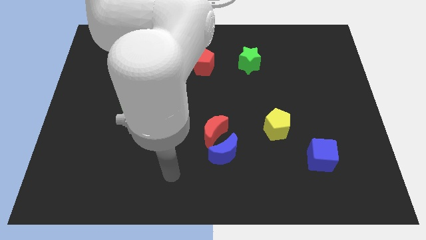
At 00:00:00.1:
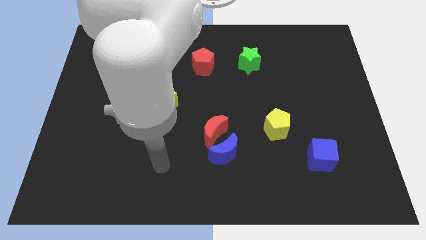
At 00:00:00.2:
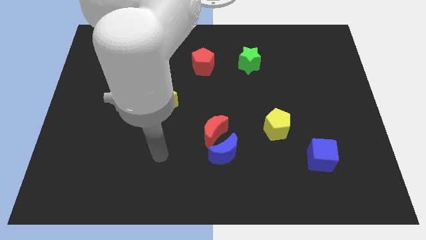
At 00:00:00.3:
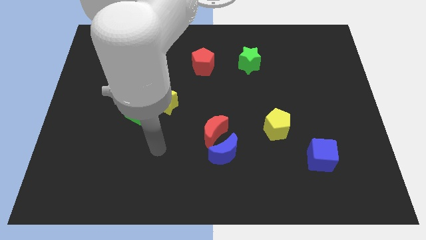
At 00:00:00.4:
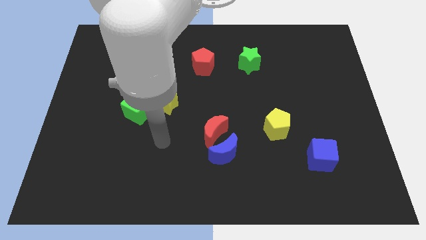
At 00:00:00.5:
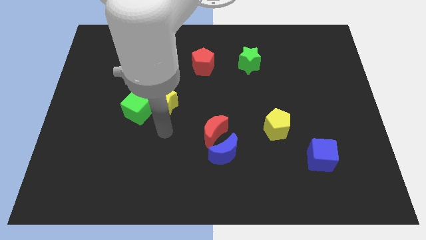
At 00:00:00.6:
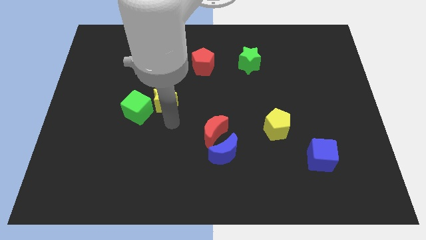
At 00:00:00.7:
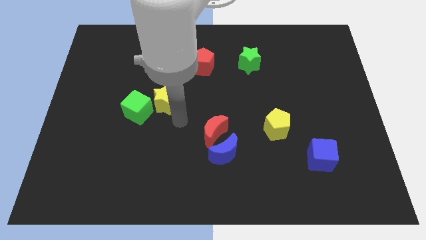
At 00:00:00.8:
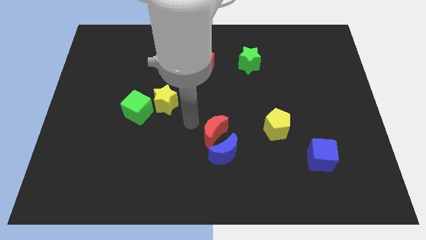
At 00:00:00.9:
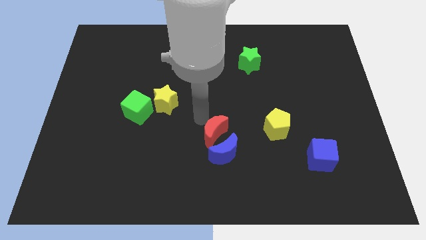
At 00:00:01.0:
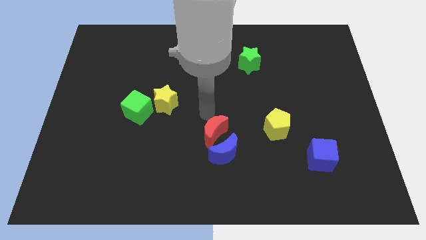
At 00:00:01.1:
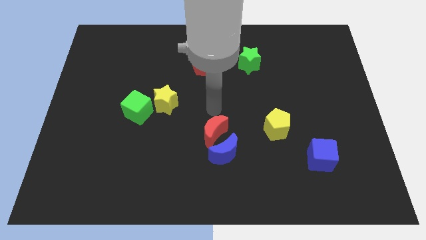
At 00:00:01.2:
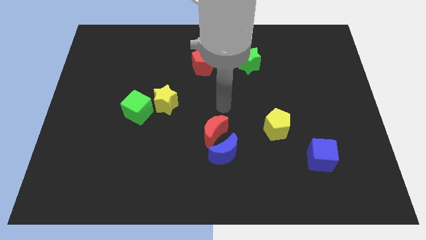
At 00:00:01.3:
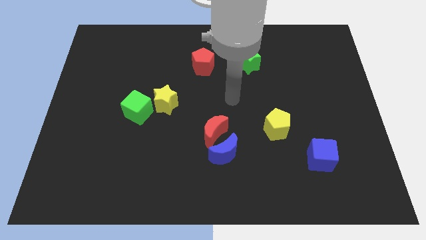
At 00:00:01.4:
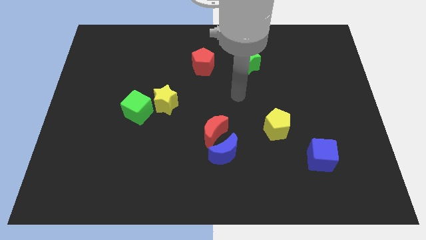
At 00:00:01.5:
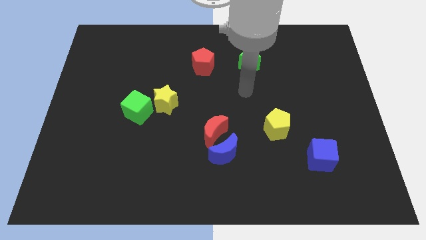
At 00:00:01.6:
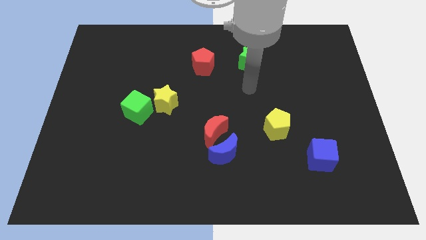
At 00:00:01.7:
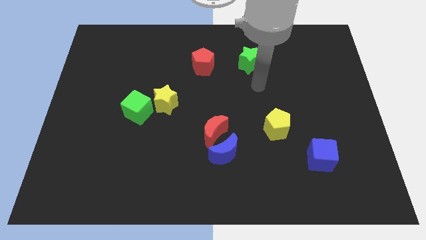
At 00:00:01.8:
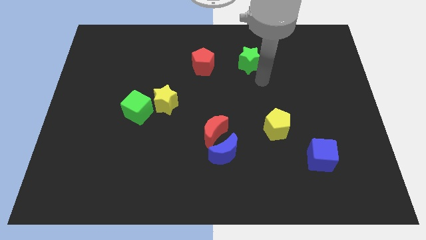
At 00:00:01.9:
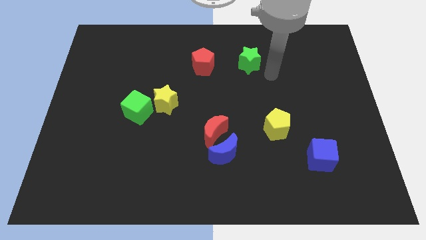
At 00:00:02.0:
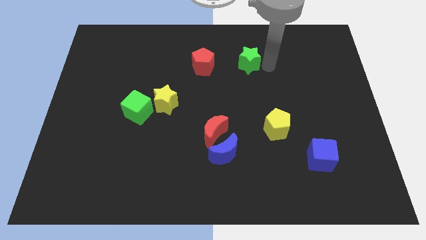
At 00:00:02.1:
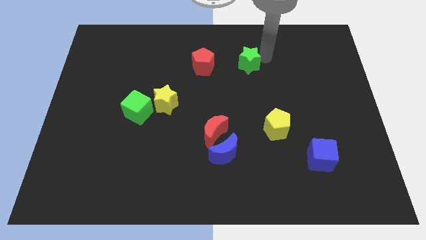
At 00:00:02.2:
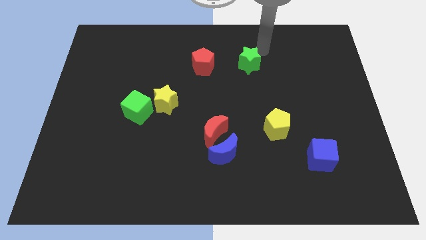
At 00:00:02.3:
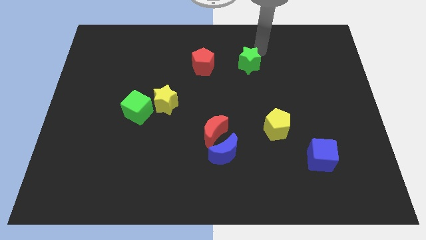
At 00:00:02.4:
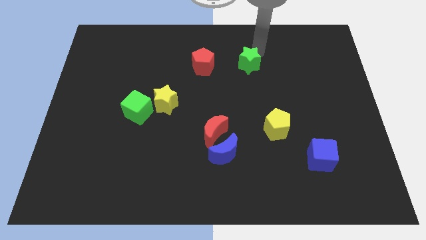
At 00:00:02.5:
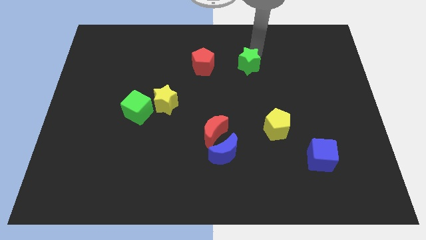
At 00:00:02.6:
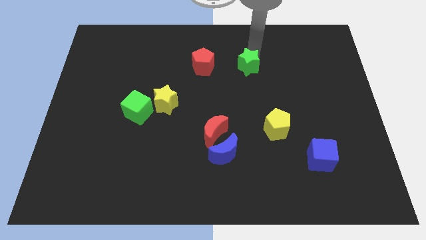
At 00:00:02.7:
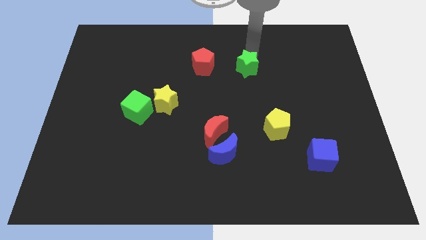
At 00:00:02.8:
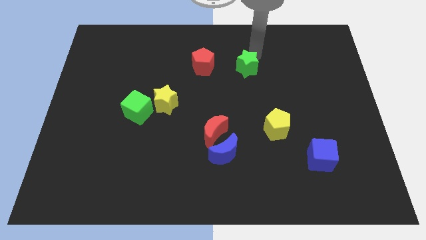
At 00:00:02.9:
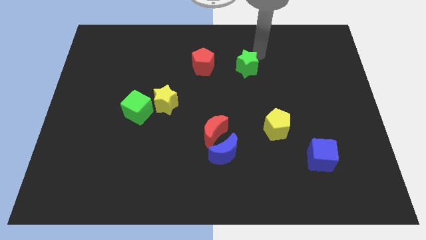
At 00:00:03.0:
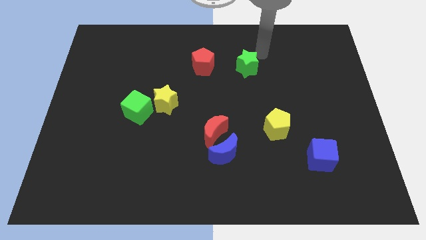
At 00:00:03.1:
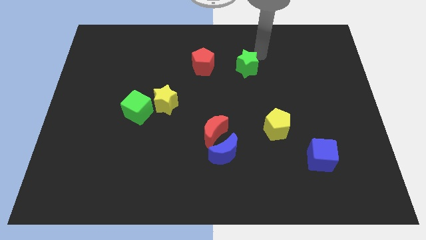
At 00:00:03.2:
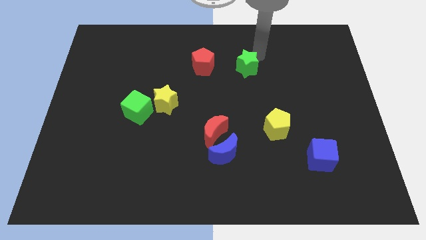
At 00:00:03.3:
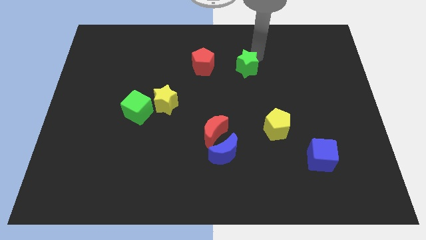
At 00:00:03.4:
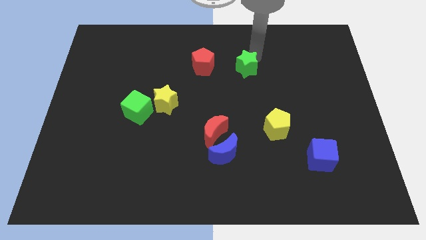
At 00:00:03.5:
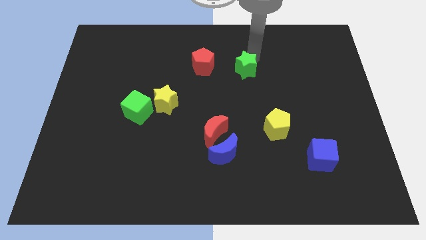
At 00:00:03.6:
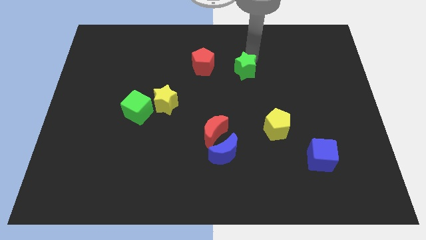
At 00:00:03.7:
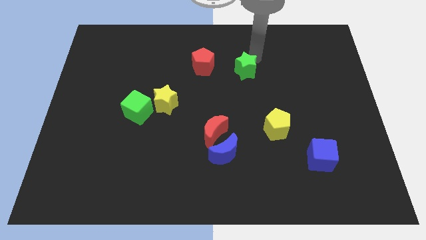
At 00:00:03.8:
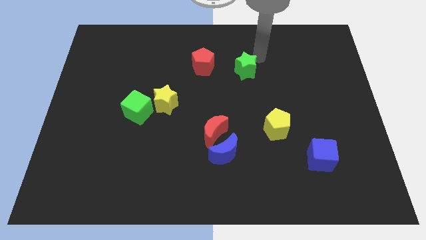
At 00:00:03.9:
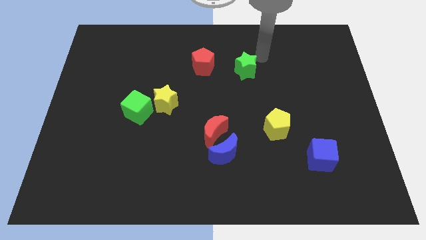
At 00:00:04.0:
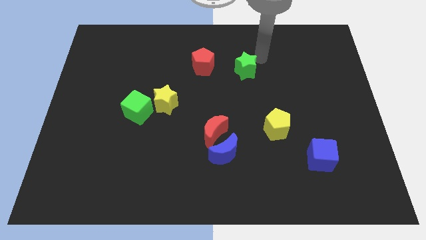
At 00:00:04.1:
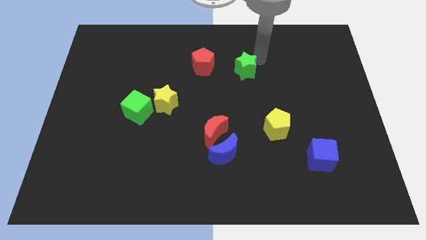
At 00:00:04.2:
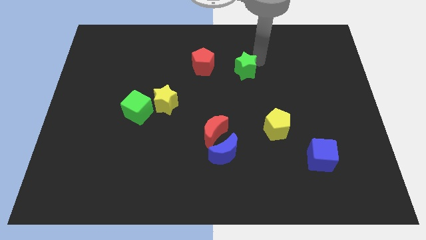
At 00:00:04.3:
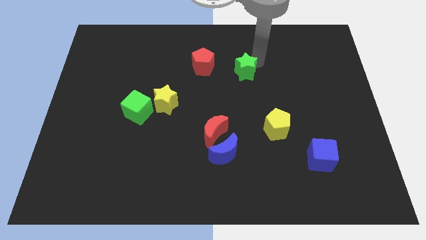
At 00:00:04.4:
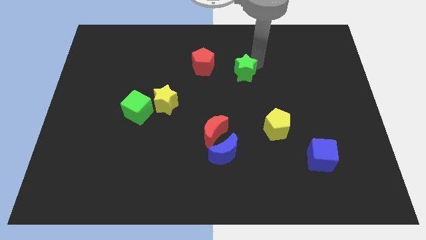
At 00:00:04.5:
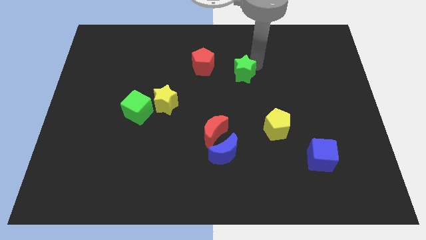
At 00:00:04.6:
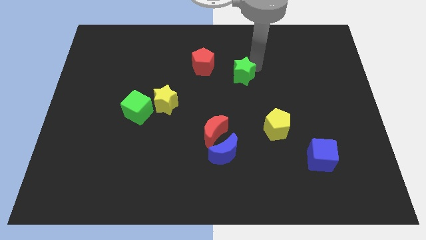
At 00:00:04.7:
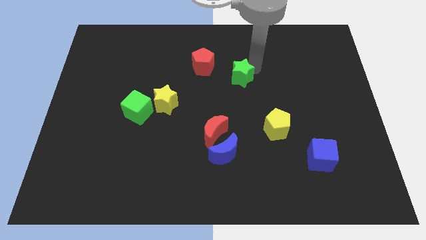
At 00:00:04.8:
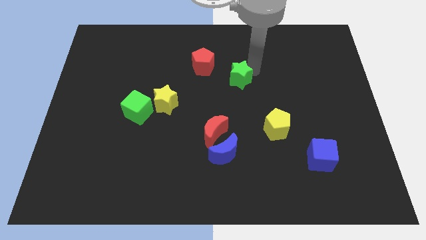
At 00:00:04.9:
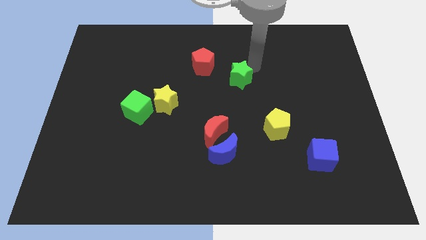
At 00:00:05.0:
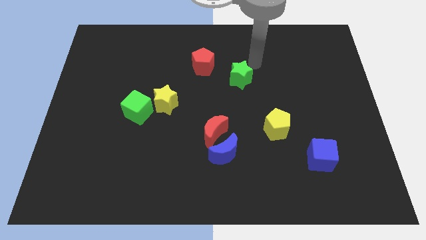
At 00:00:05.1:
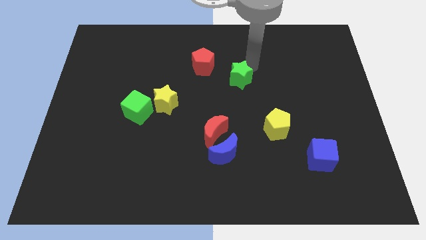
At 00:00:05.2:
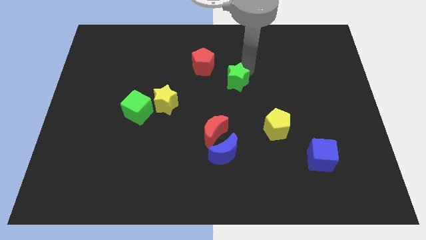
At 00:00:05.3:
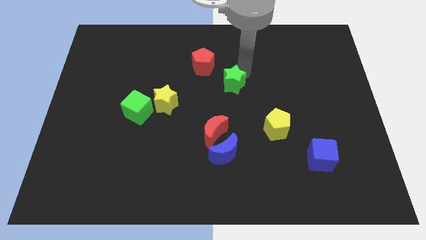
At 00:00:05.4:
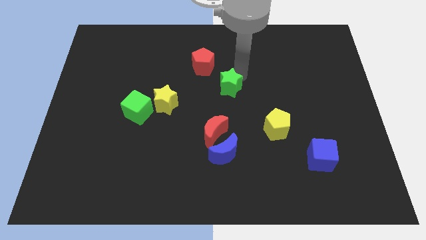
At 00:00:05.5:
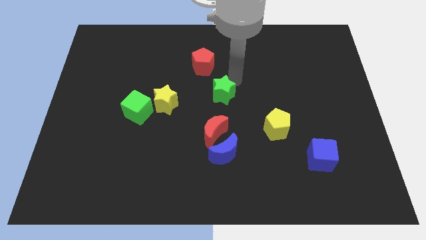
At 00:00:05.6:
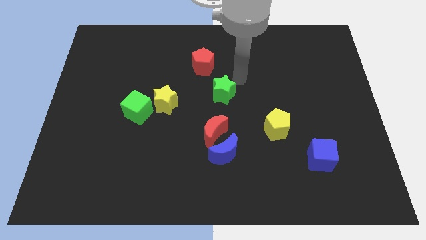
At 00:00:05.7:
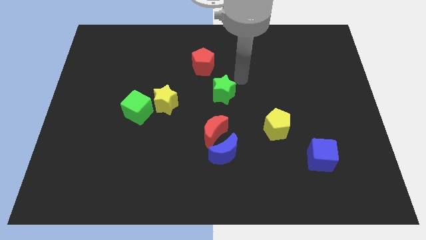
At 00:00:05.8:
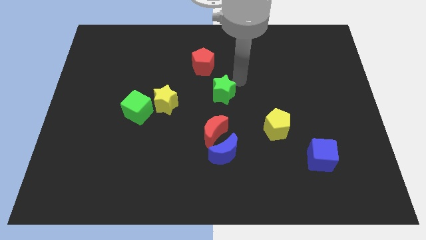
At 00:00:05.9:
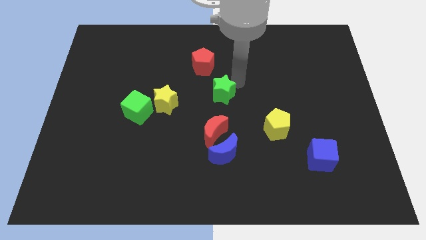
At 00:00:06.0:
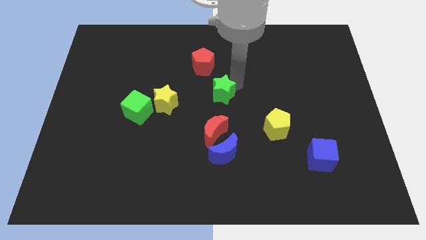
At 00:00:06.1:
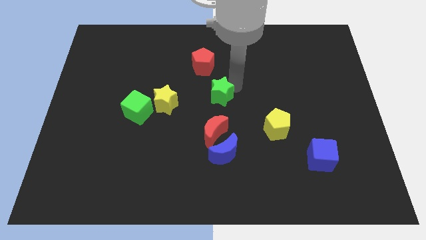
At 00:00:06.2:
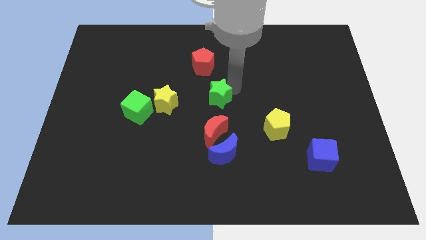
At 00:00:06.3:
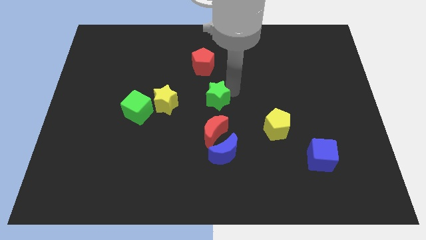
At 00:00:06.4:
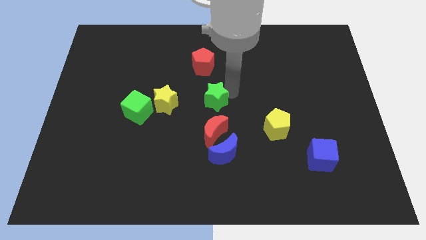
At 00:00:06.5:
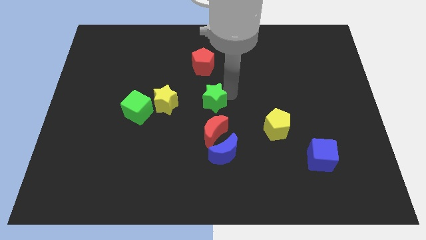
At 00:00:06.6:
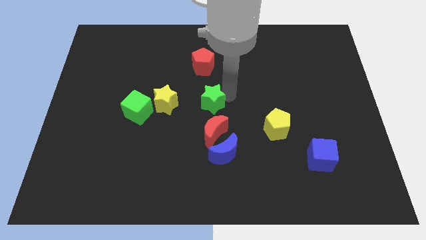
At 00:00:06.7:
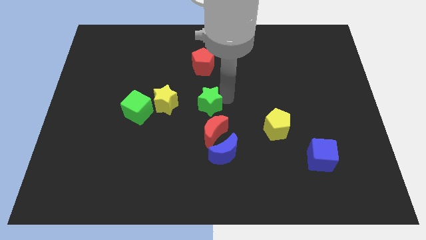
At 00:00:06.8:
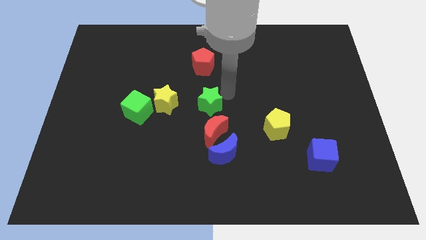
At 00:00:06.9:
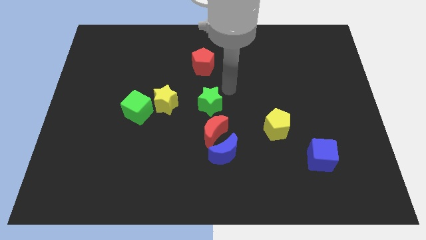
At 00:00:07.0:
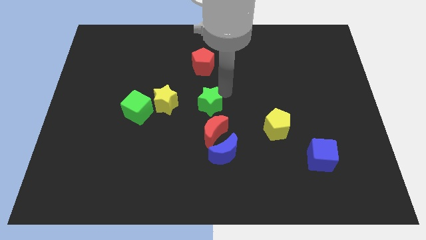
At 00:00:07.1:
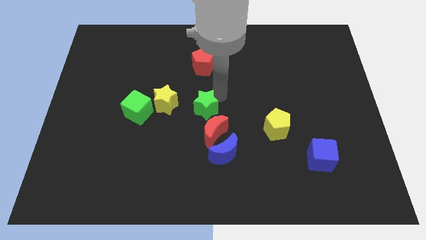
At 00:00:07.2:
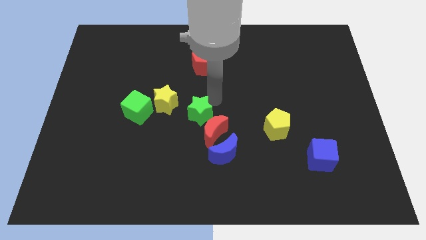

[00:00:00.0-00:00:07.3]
move the green star to the bottom right of the yellow star

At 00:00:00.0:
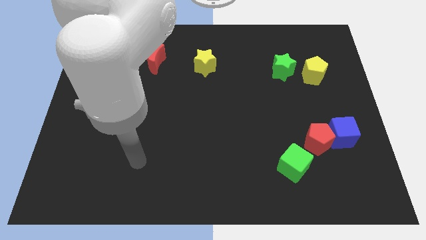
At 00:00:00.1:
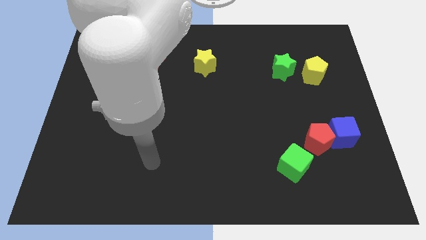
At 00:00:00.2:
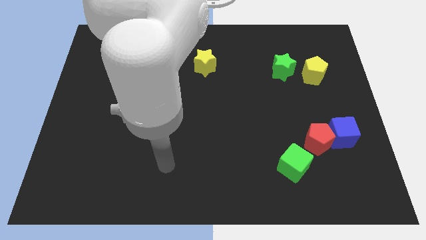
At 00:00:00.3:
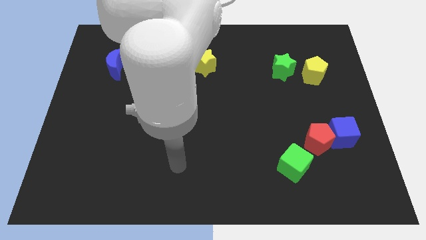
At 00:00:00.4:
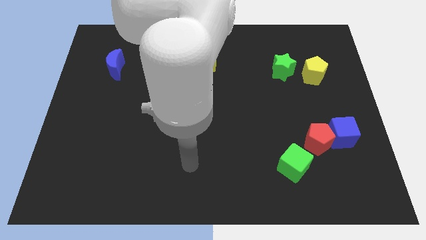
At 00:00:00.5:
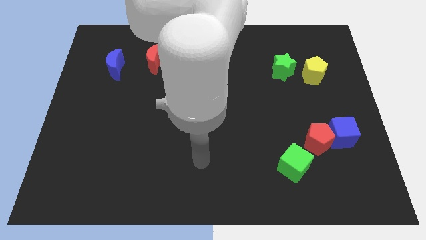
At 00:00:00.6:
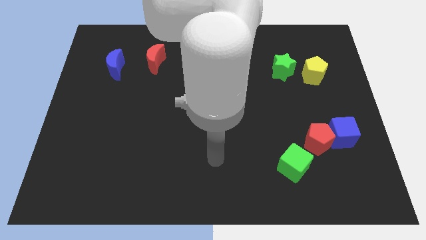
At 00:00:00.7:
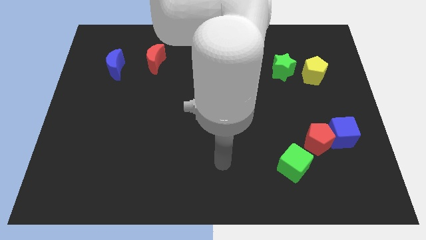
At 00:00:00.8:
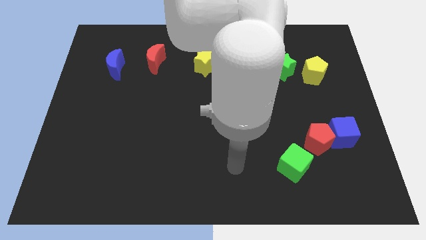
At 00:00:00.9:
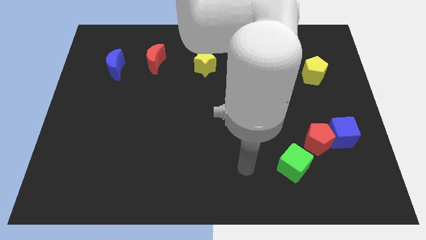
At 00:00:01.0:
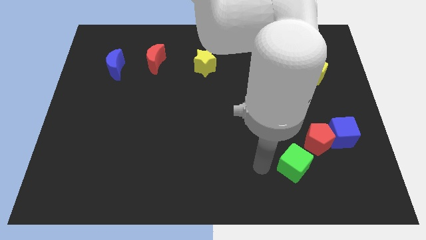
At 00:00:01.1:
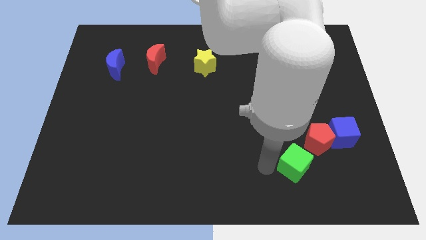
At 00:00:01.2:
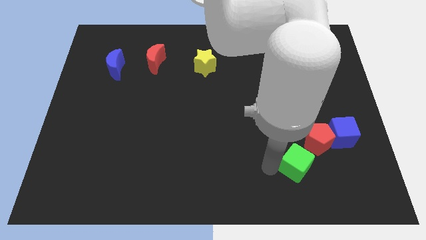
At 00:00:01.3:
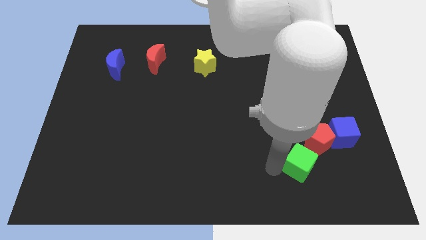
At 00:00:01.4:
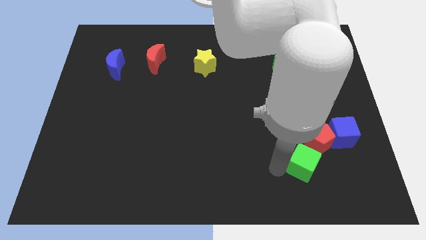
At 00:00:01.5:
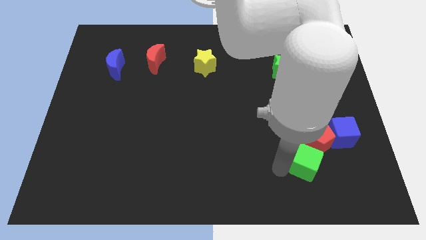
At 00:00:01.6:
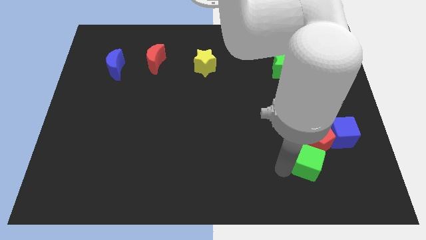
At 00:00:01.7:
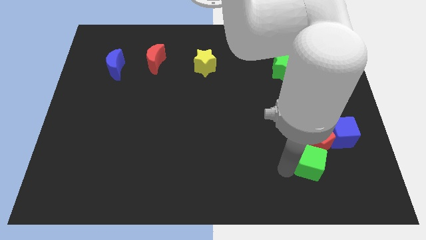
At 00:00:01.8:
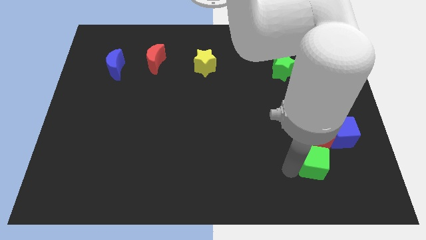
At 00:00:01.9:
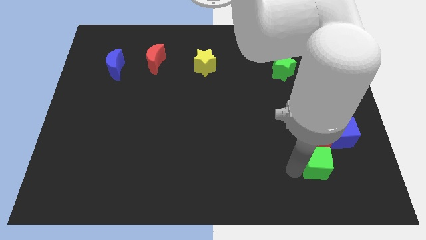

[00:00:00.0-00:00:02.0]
slide the green cube diagonally down and to the right of the red pentagon
